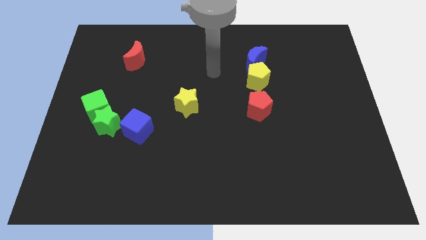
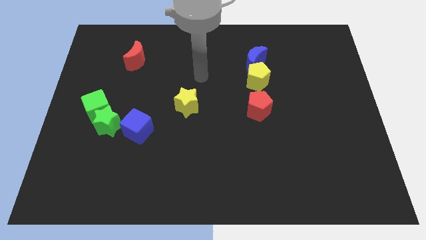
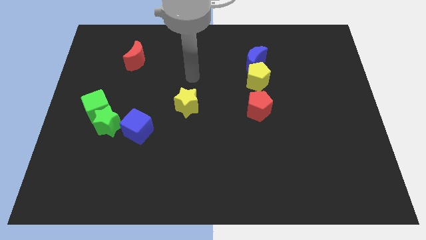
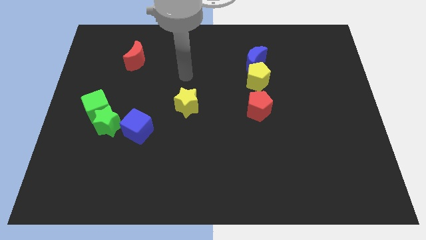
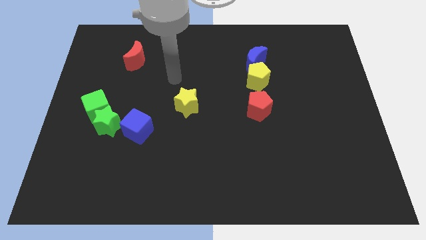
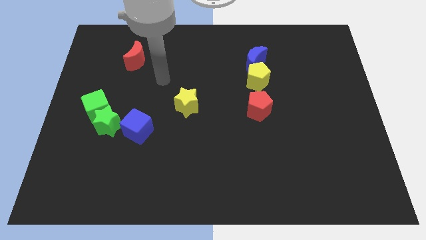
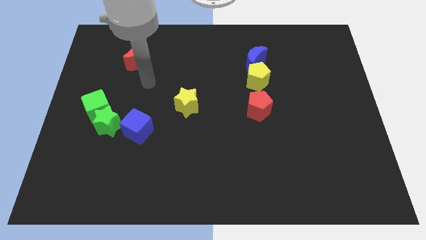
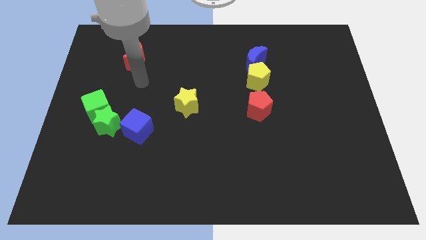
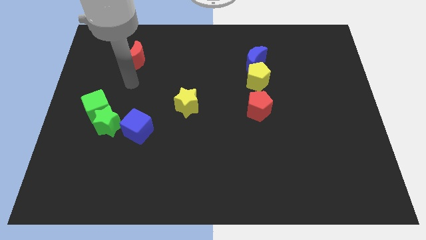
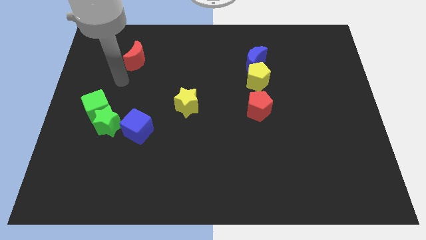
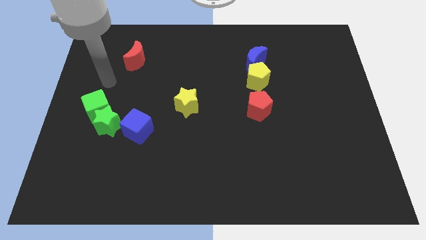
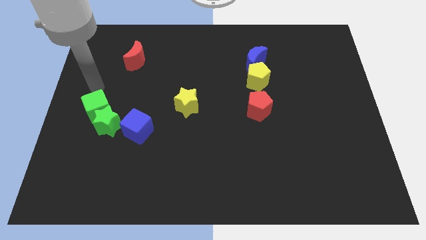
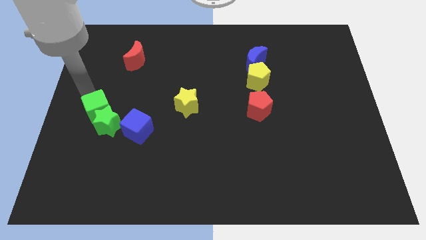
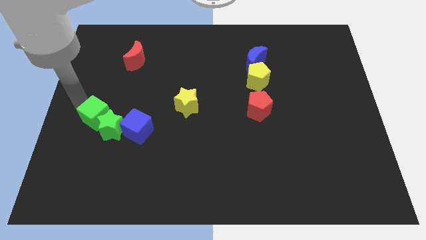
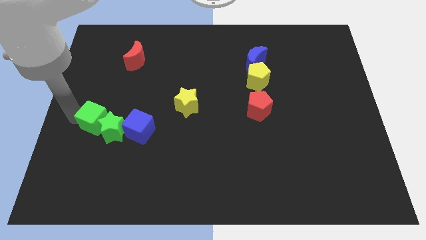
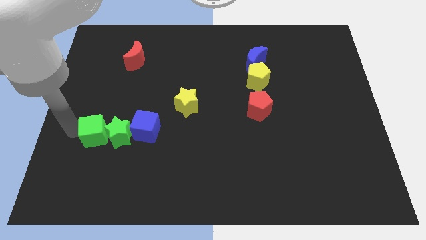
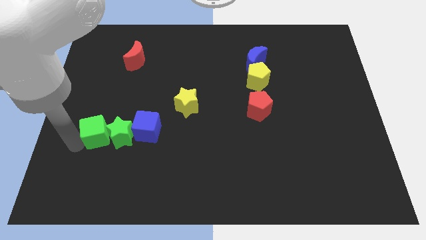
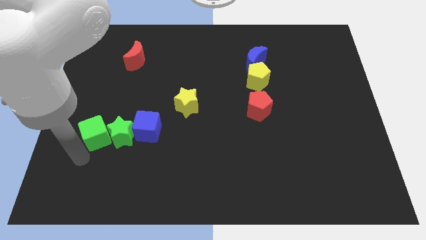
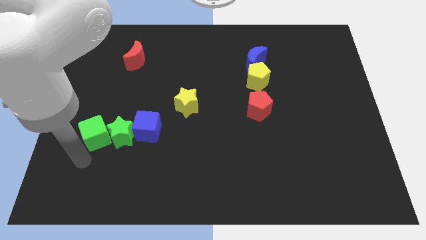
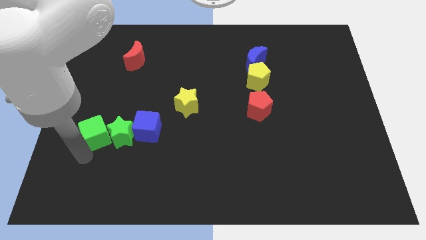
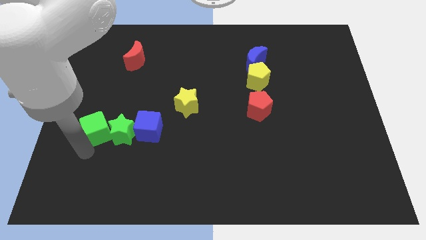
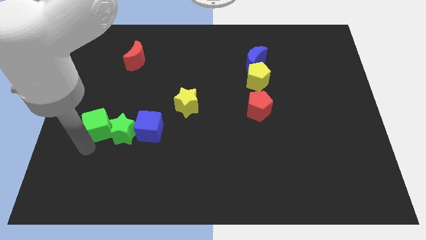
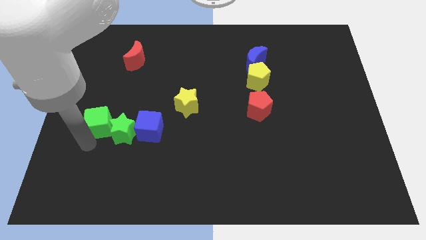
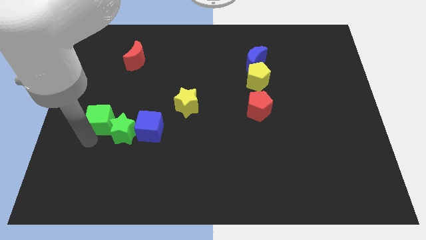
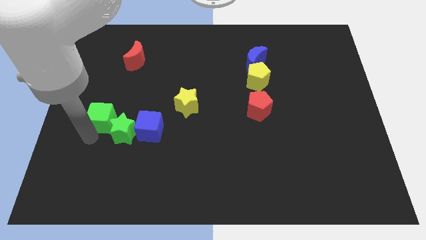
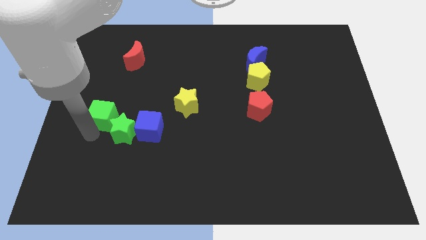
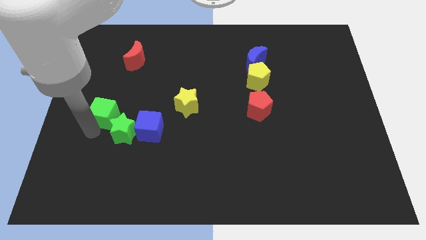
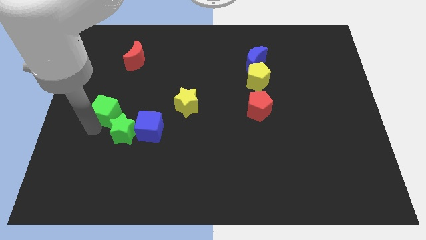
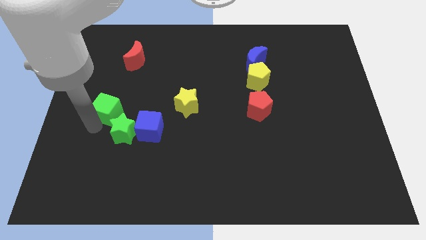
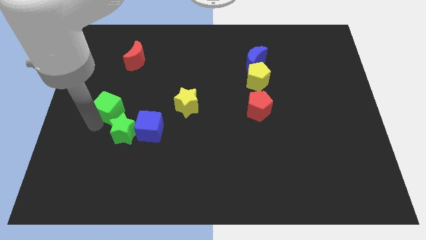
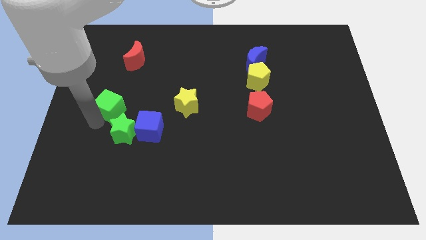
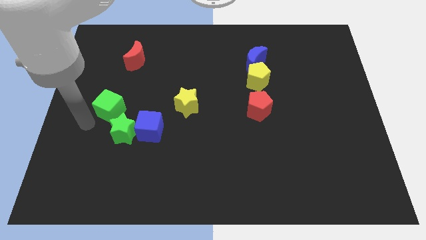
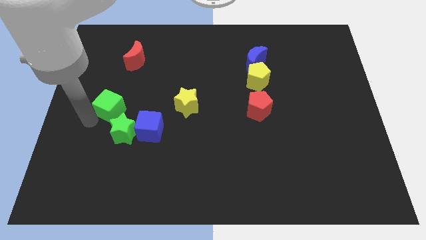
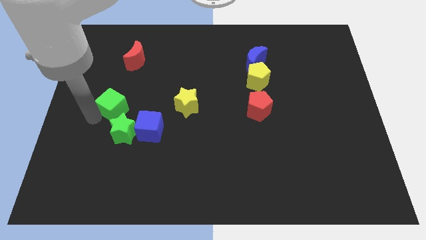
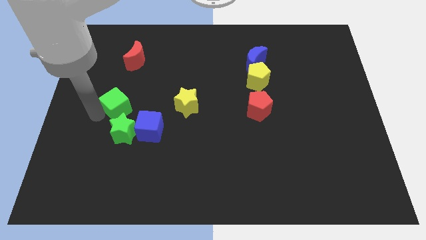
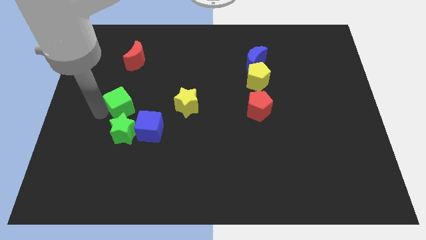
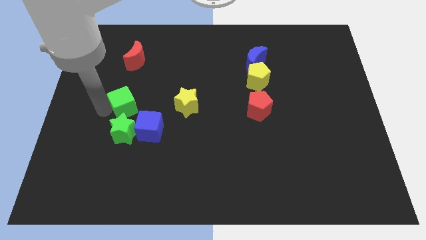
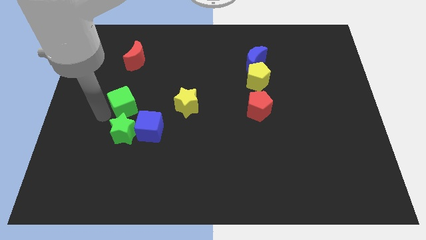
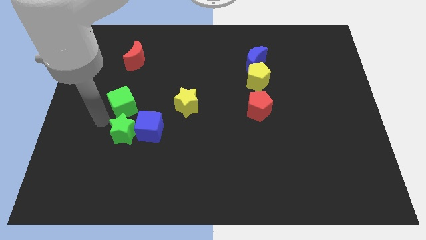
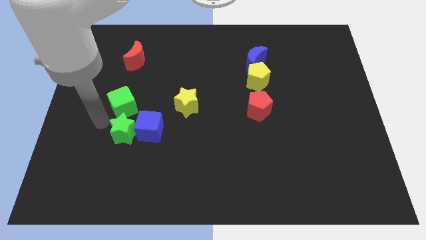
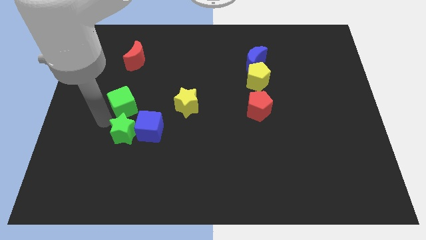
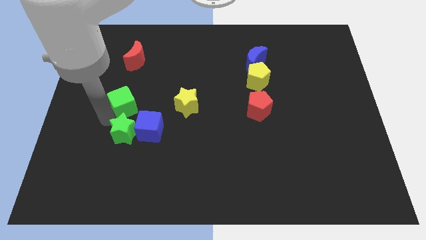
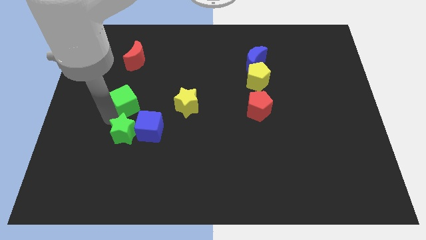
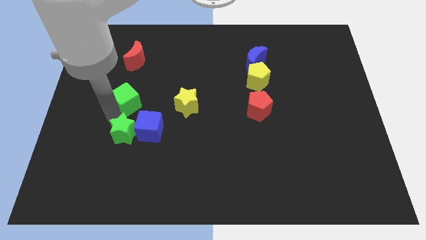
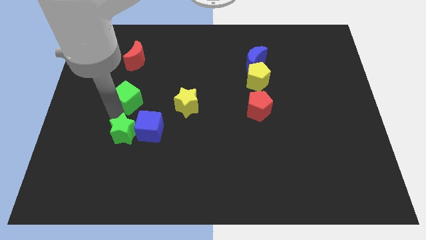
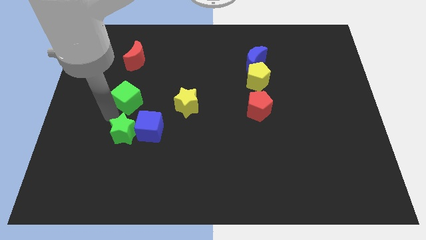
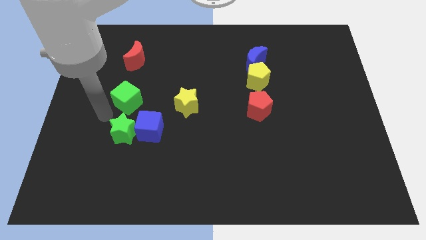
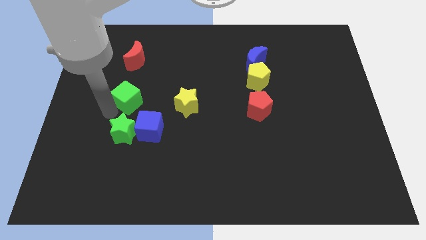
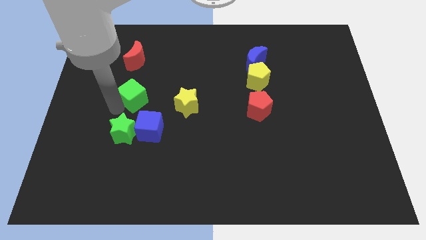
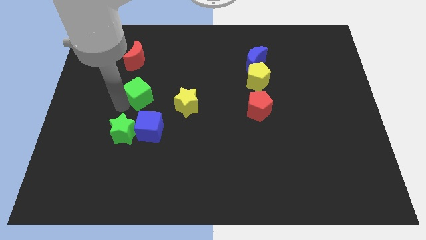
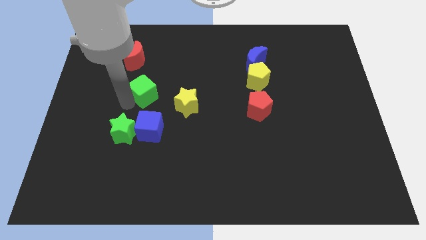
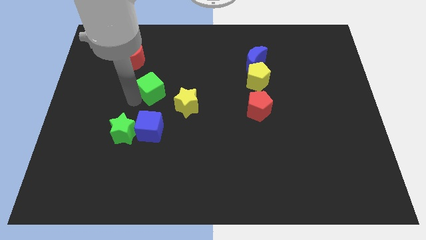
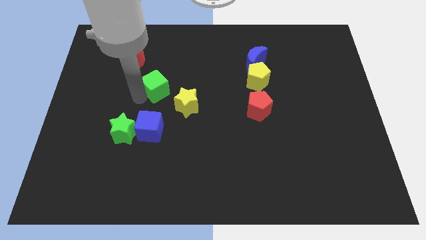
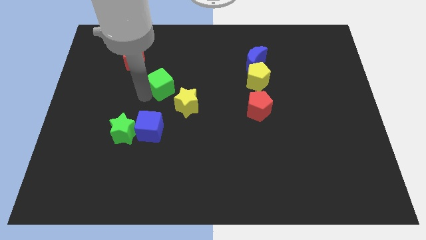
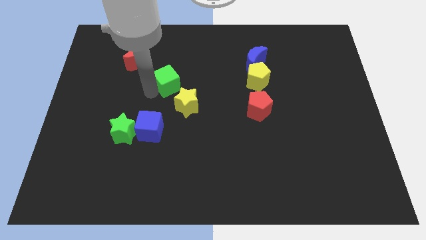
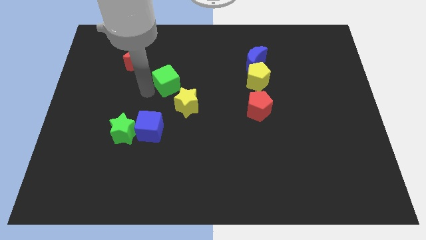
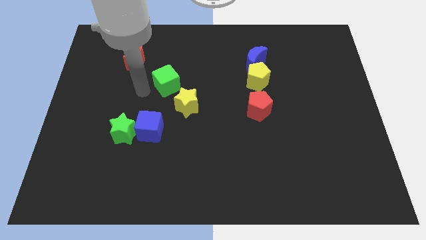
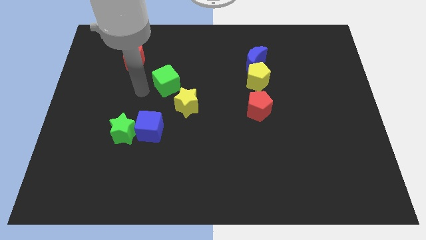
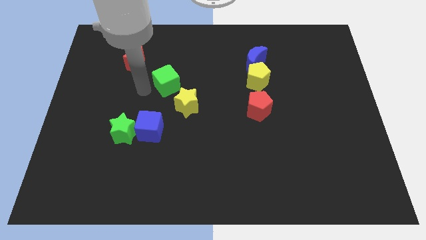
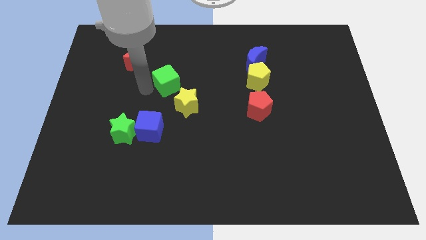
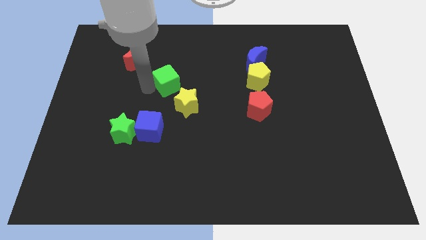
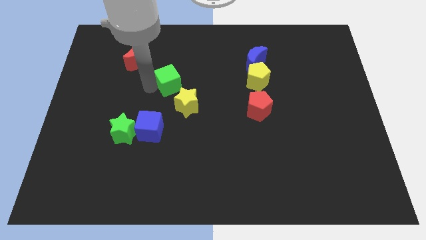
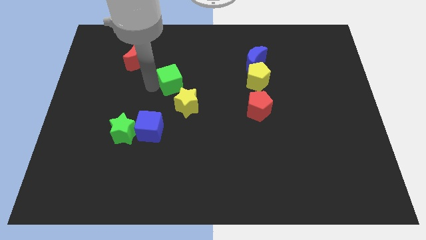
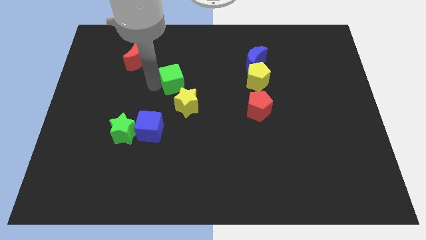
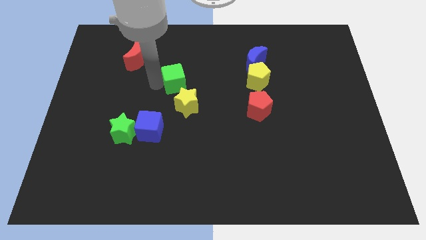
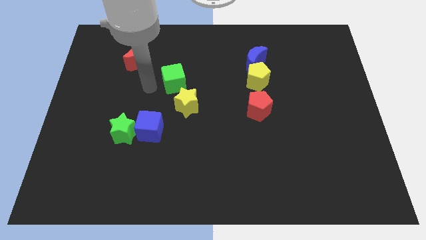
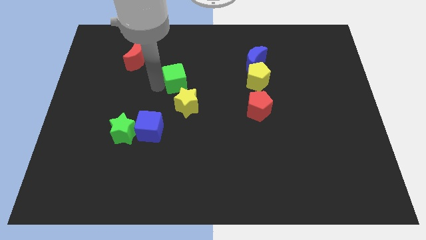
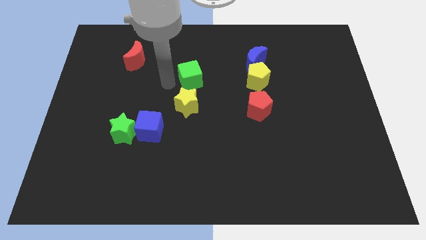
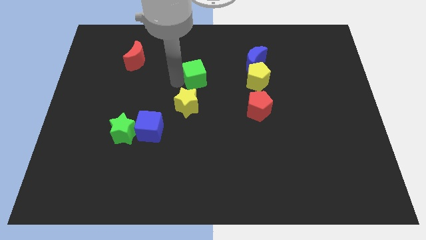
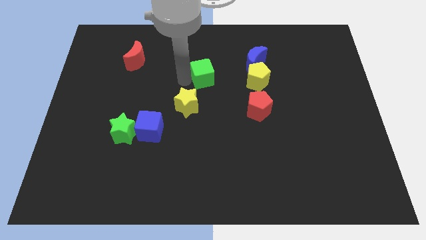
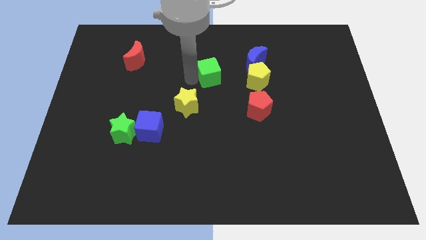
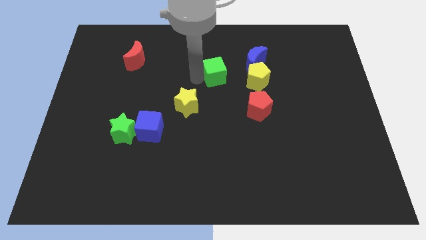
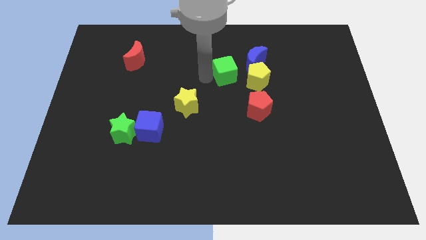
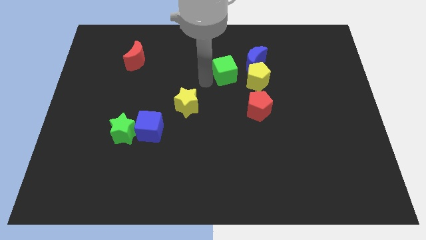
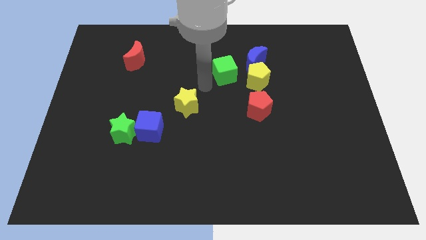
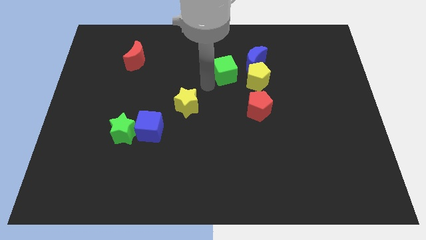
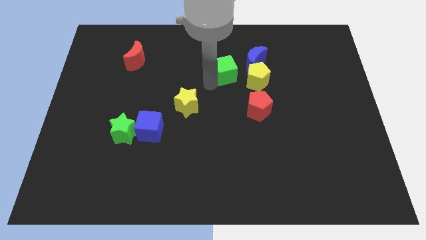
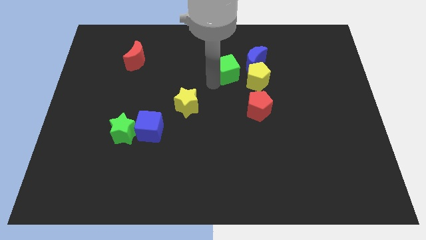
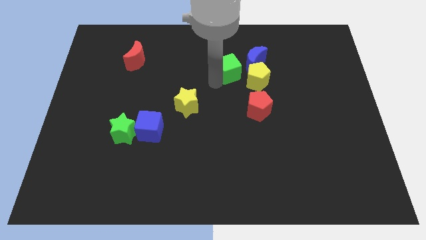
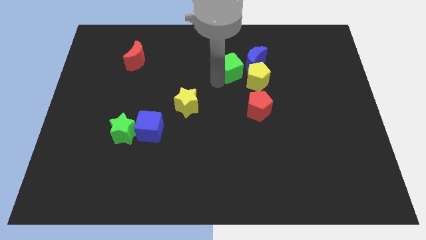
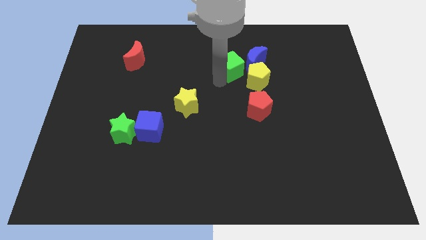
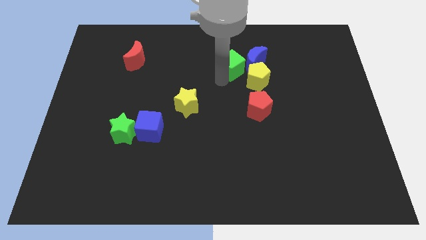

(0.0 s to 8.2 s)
slide the green cube towards the blue moon
